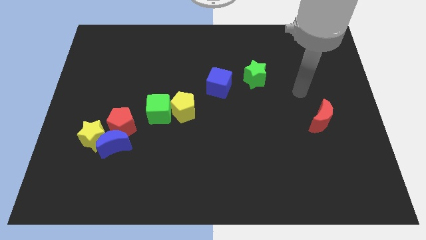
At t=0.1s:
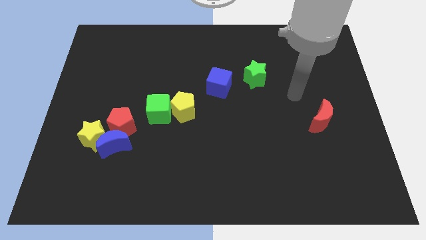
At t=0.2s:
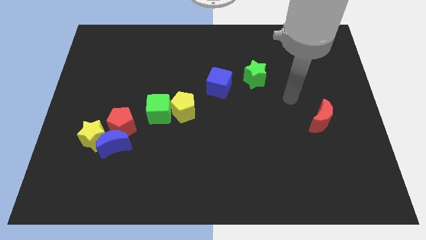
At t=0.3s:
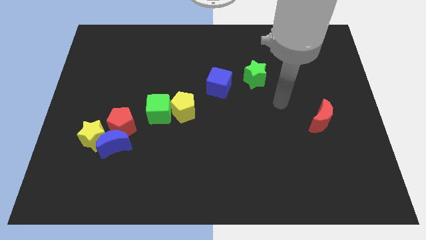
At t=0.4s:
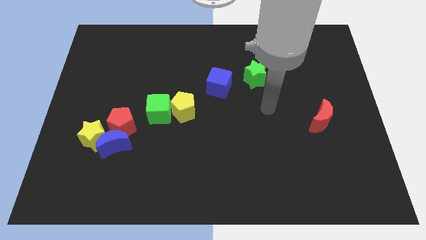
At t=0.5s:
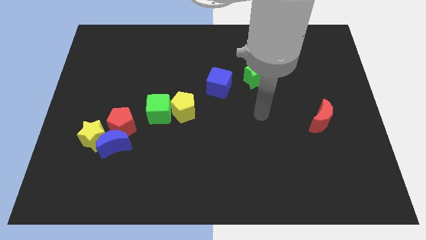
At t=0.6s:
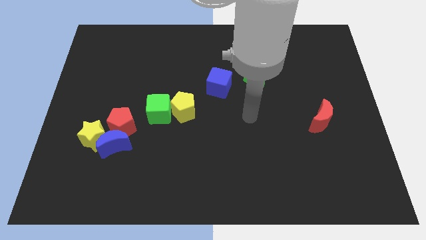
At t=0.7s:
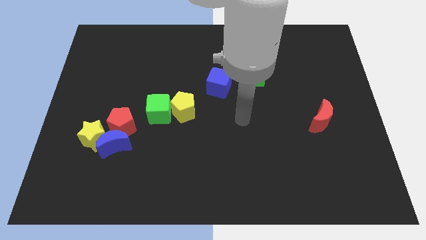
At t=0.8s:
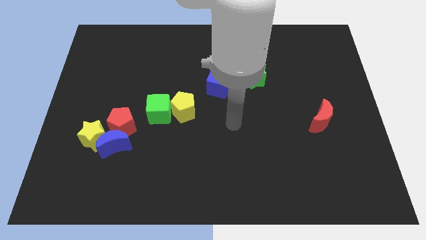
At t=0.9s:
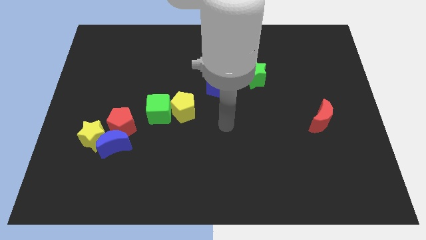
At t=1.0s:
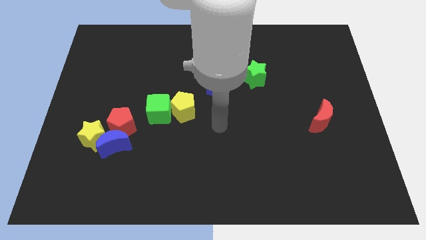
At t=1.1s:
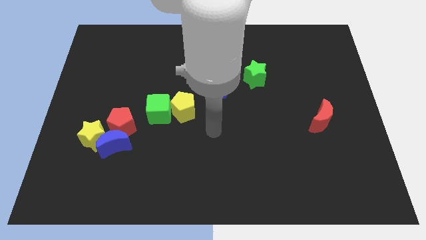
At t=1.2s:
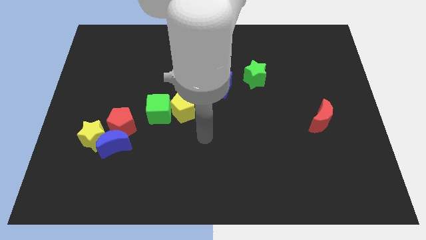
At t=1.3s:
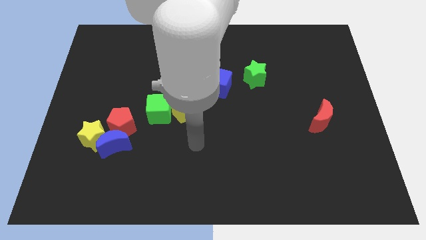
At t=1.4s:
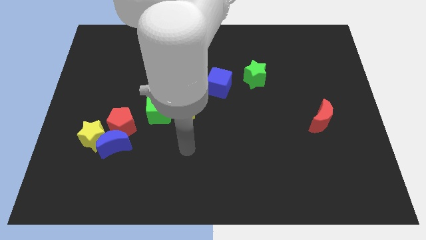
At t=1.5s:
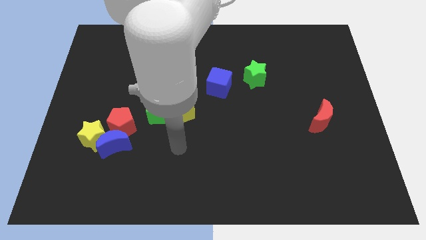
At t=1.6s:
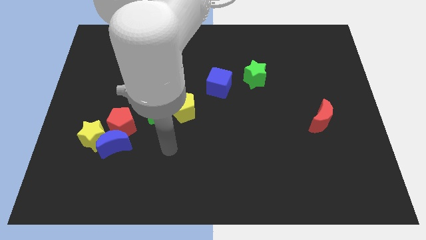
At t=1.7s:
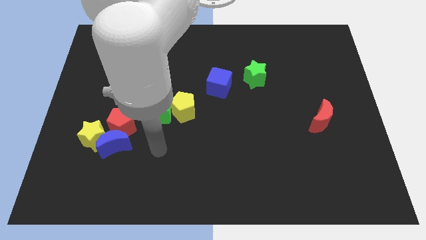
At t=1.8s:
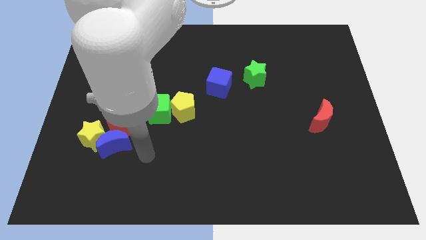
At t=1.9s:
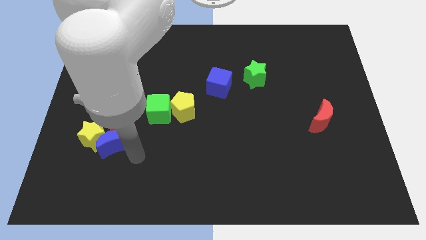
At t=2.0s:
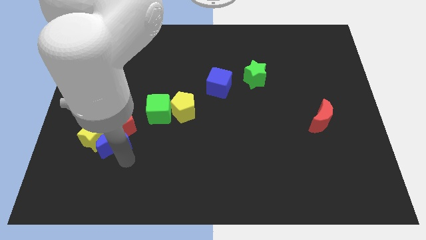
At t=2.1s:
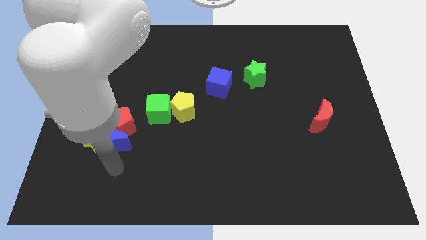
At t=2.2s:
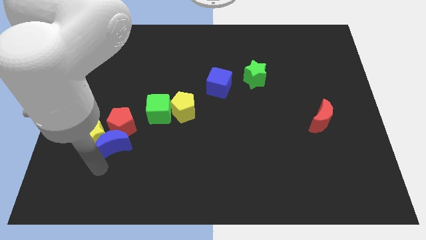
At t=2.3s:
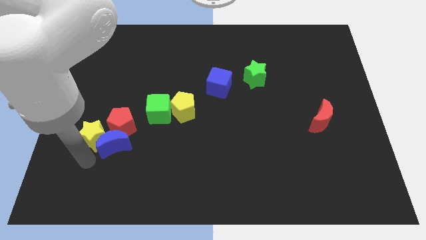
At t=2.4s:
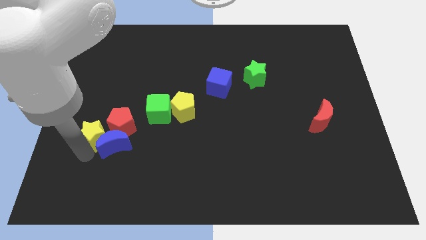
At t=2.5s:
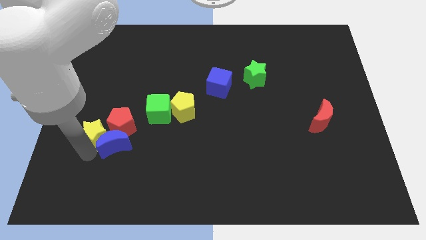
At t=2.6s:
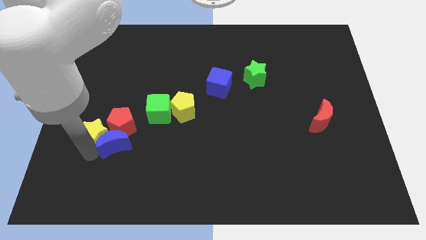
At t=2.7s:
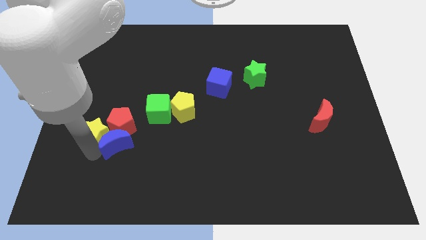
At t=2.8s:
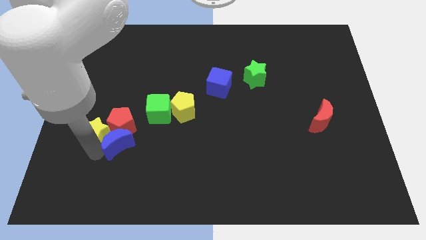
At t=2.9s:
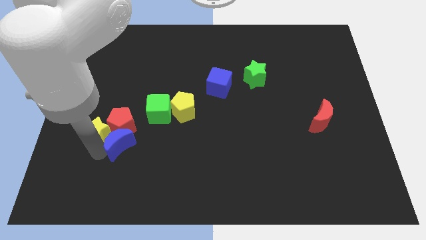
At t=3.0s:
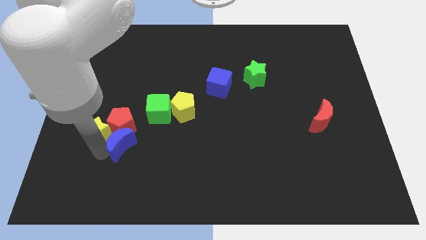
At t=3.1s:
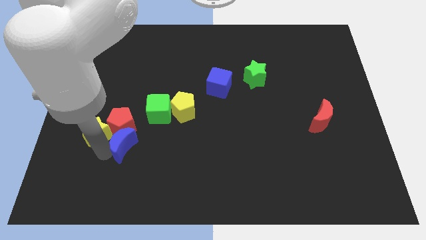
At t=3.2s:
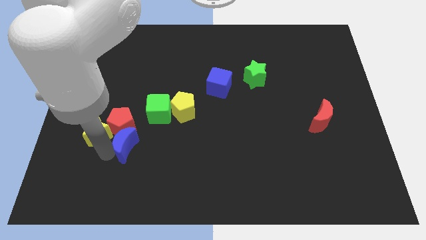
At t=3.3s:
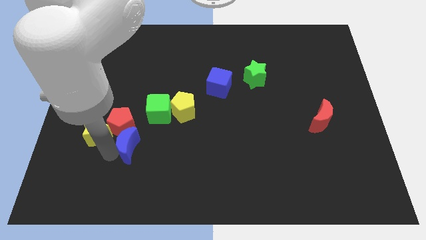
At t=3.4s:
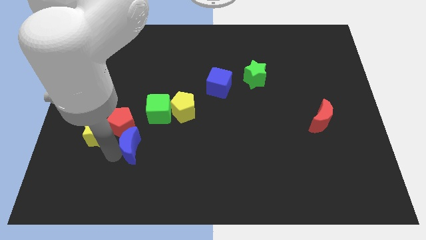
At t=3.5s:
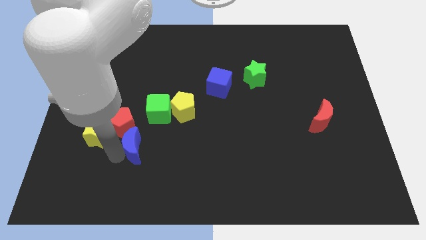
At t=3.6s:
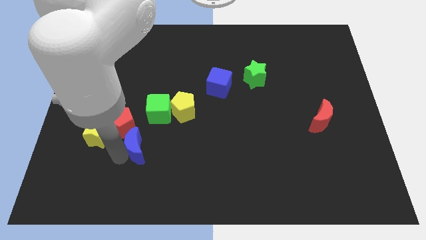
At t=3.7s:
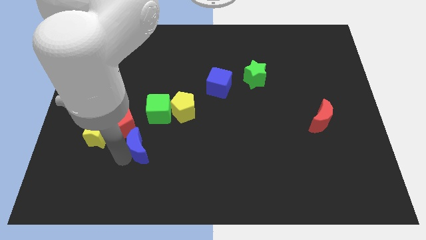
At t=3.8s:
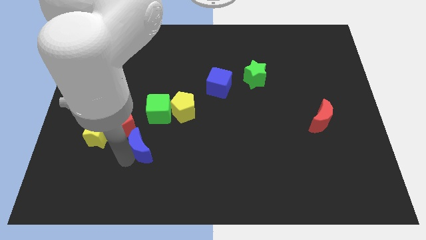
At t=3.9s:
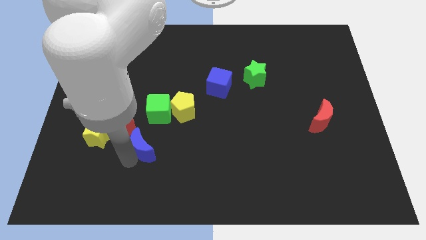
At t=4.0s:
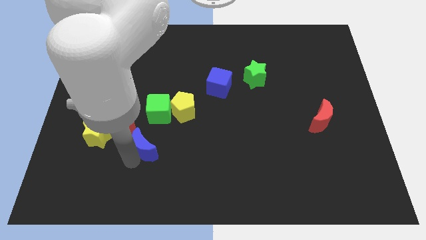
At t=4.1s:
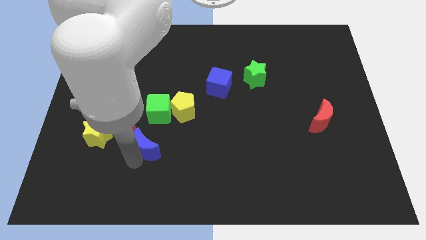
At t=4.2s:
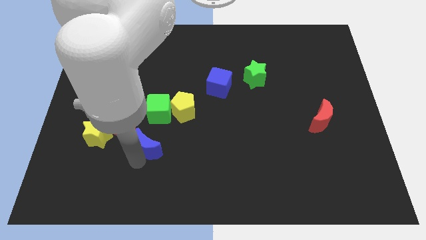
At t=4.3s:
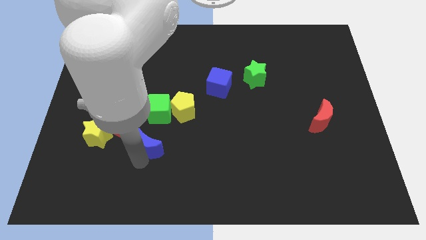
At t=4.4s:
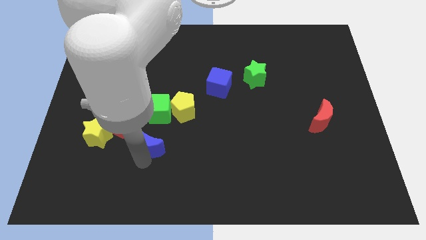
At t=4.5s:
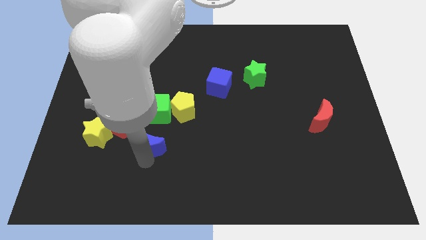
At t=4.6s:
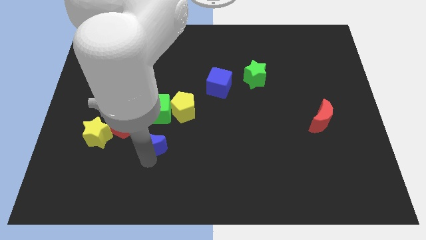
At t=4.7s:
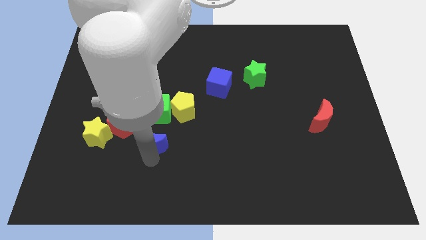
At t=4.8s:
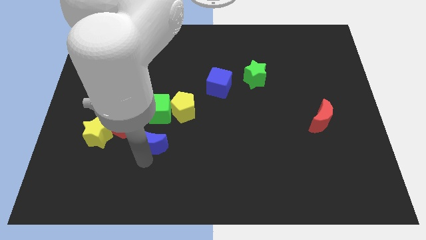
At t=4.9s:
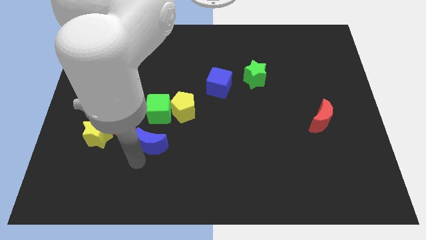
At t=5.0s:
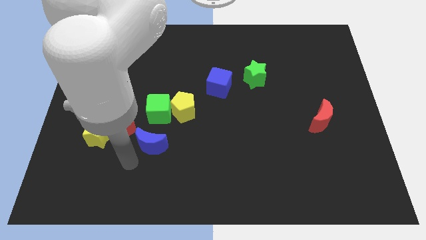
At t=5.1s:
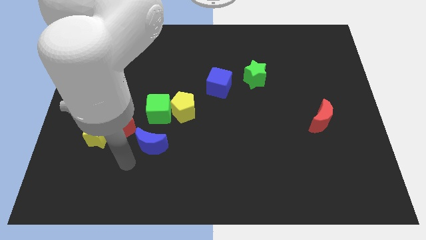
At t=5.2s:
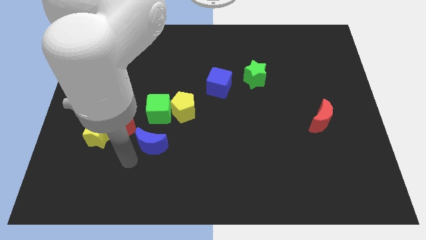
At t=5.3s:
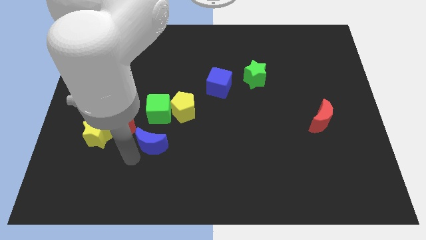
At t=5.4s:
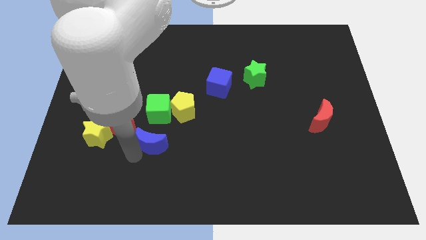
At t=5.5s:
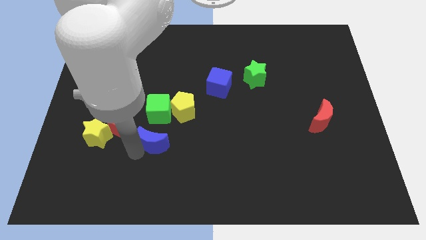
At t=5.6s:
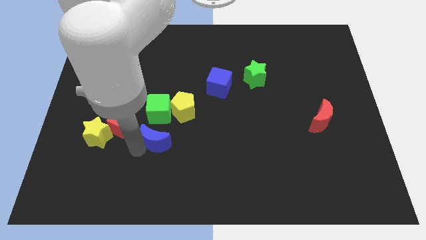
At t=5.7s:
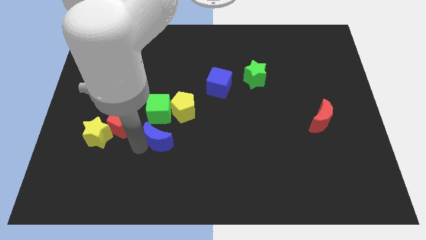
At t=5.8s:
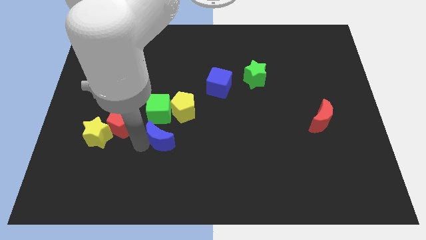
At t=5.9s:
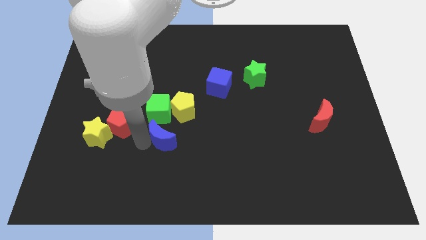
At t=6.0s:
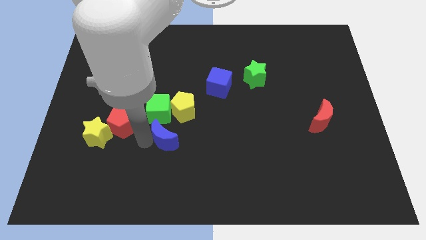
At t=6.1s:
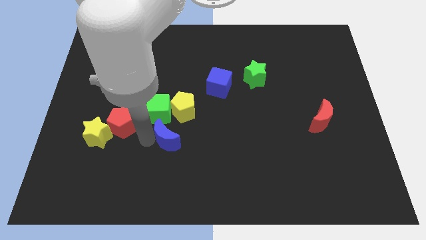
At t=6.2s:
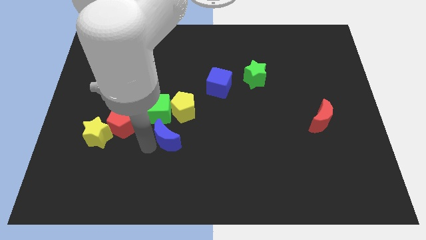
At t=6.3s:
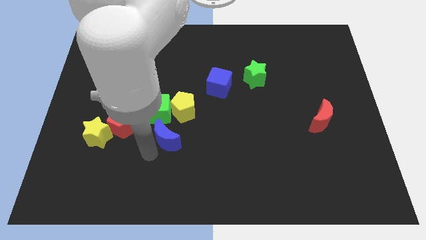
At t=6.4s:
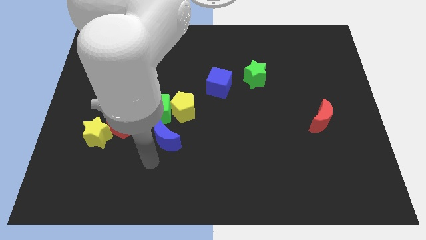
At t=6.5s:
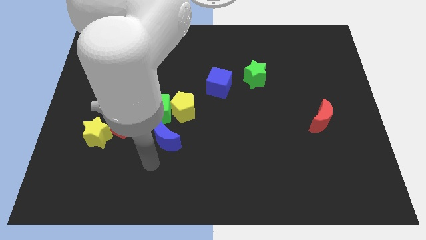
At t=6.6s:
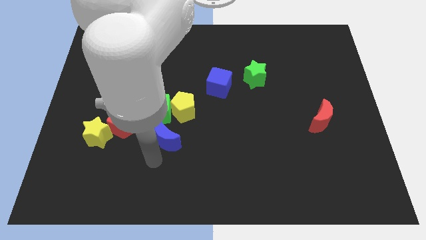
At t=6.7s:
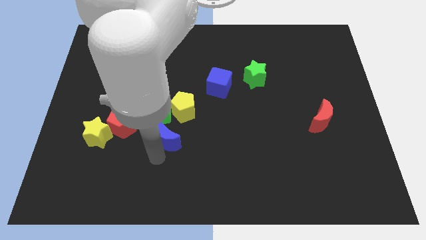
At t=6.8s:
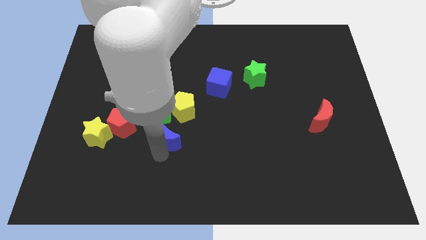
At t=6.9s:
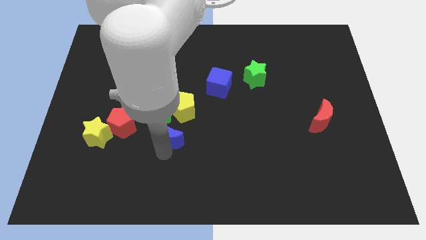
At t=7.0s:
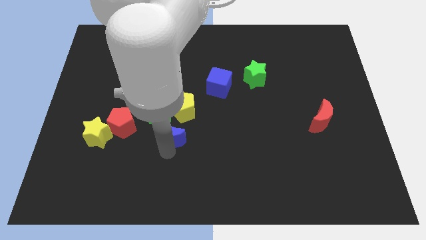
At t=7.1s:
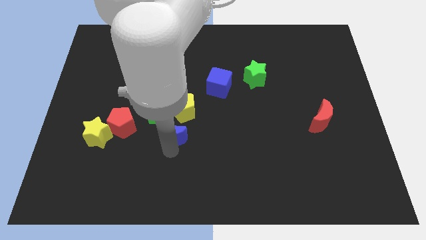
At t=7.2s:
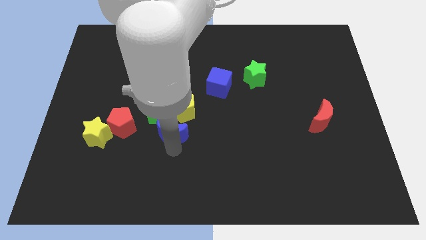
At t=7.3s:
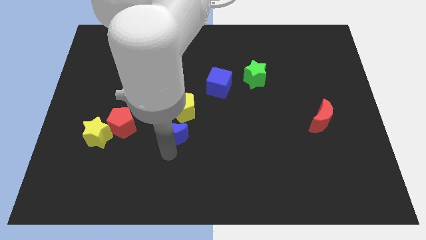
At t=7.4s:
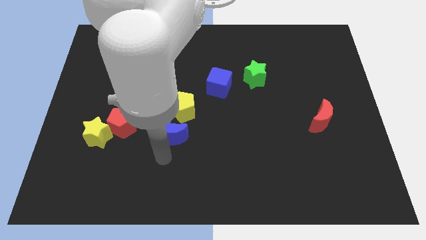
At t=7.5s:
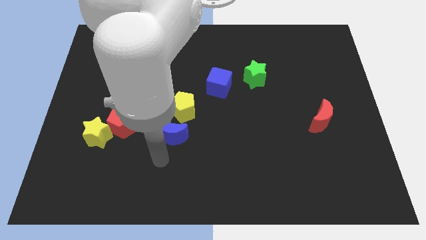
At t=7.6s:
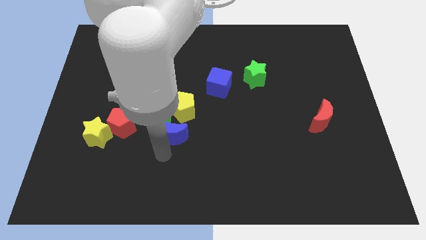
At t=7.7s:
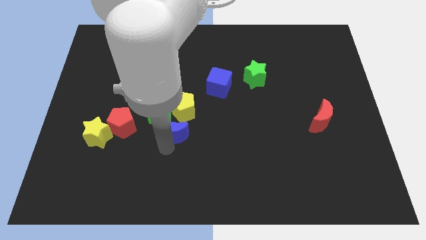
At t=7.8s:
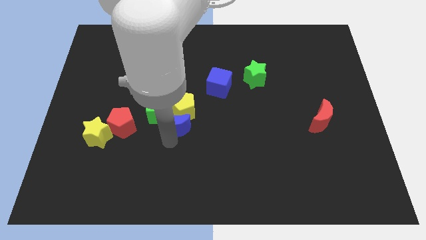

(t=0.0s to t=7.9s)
move the blue moon to the yellow pentagon
